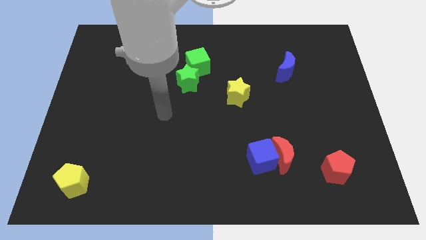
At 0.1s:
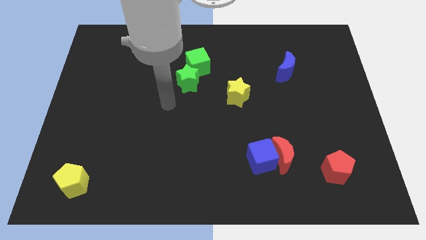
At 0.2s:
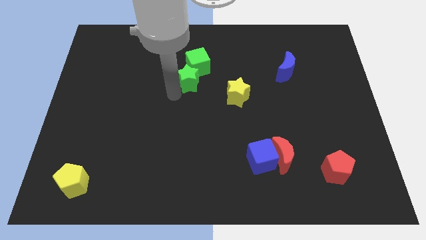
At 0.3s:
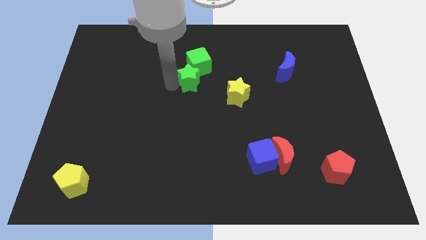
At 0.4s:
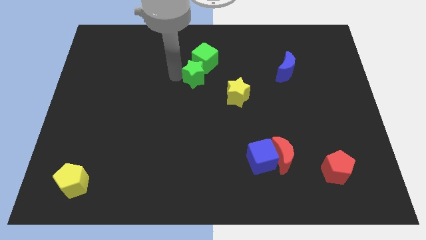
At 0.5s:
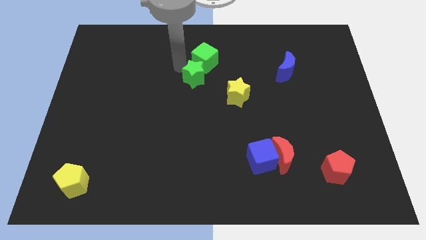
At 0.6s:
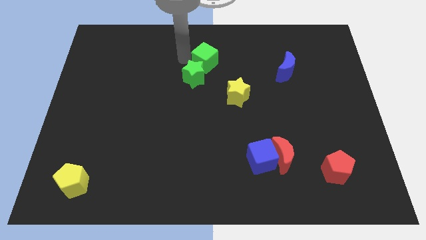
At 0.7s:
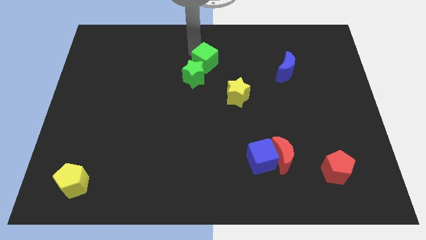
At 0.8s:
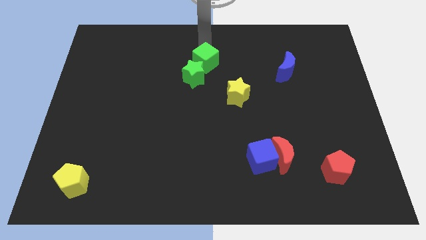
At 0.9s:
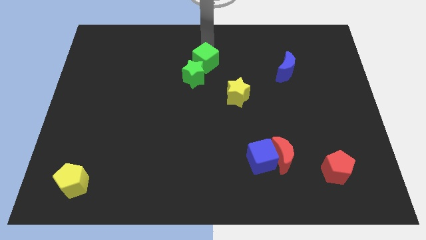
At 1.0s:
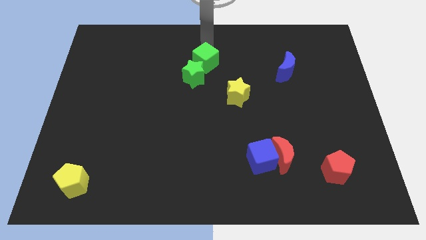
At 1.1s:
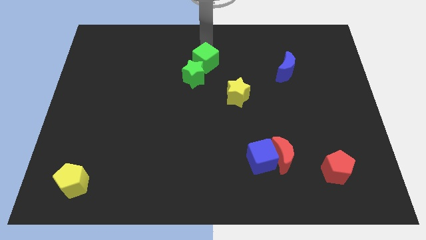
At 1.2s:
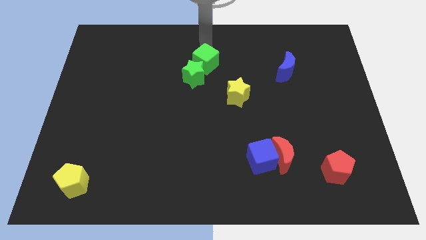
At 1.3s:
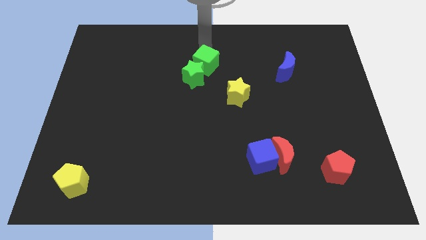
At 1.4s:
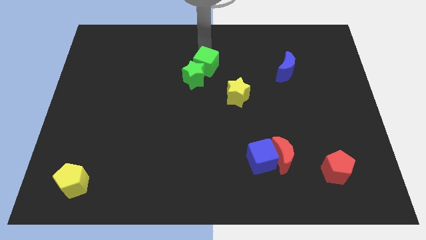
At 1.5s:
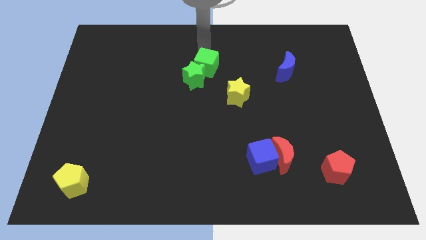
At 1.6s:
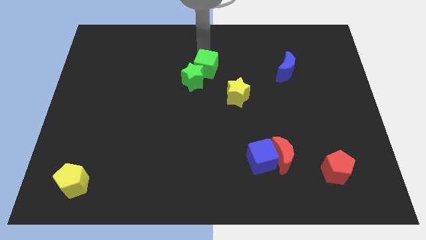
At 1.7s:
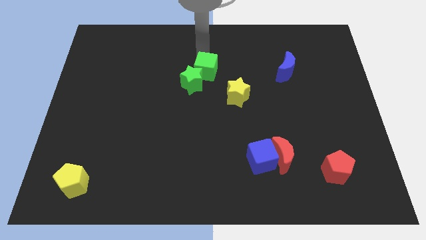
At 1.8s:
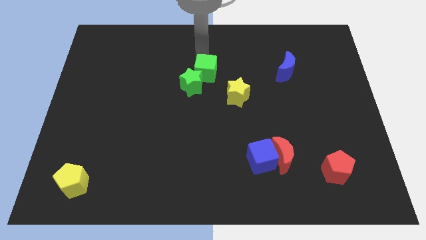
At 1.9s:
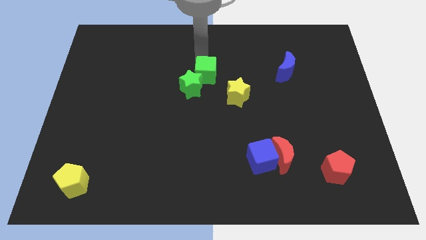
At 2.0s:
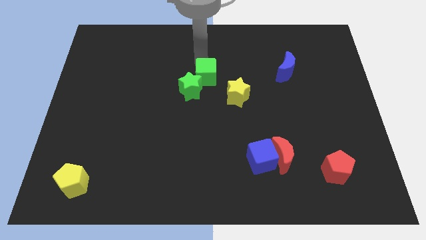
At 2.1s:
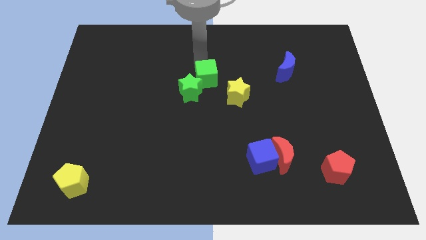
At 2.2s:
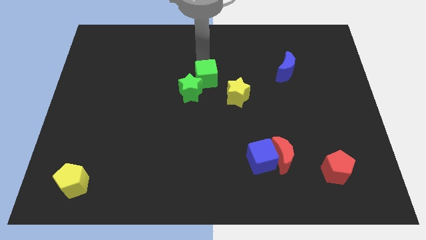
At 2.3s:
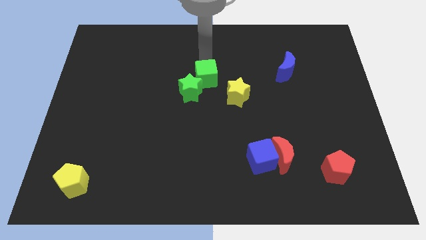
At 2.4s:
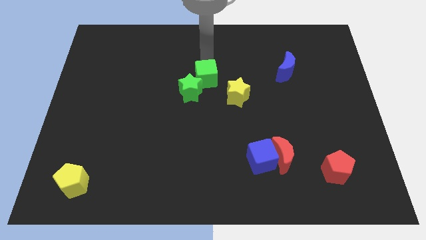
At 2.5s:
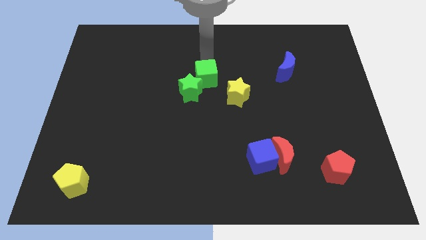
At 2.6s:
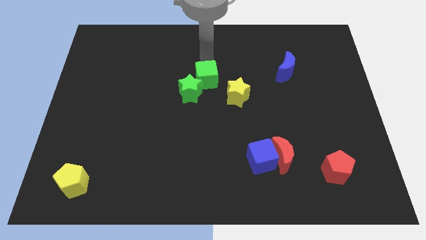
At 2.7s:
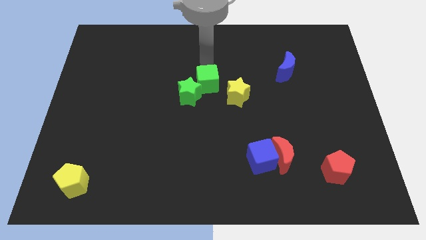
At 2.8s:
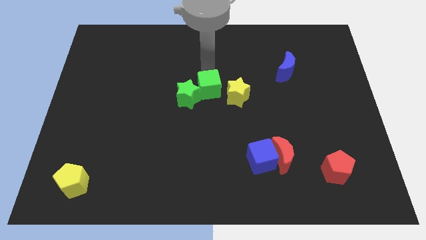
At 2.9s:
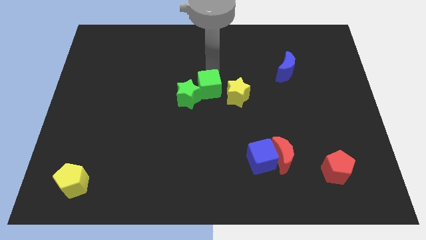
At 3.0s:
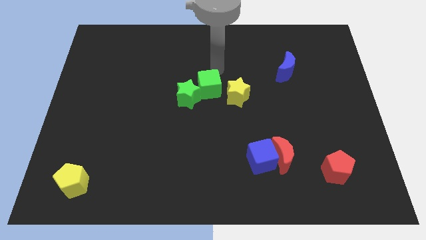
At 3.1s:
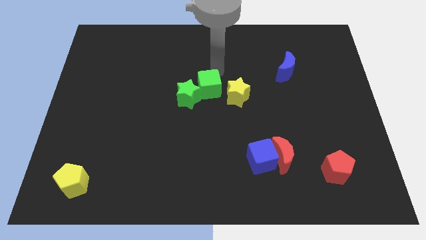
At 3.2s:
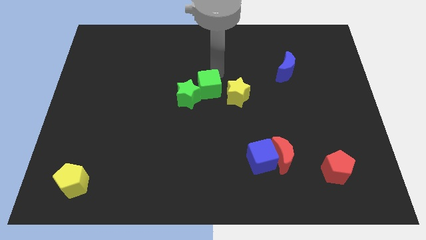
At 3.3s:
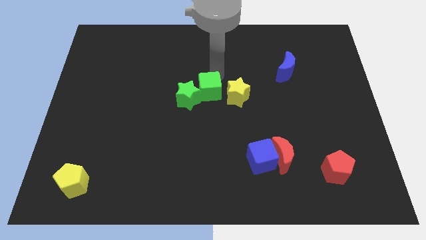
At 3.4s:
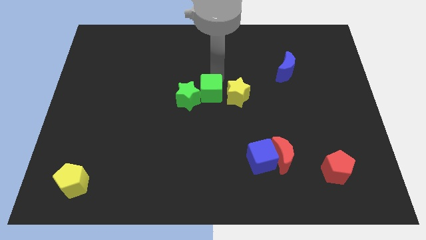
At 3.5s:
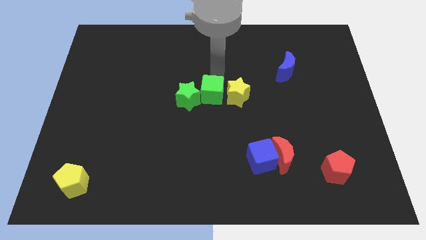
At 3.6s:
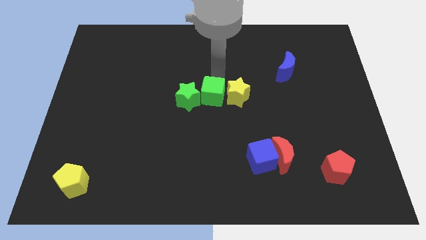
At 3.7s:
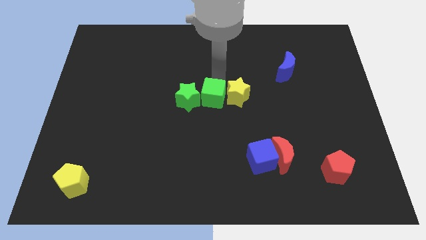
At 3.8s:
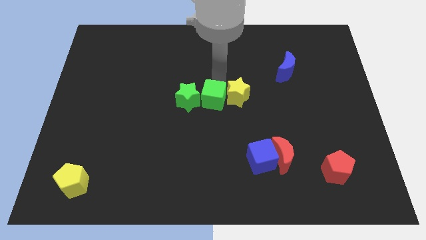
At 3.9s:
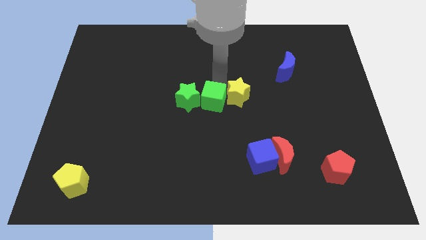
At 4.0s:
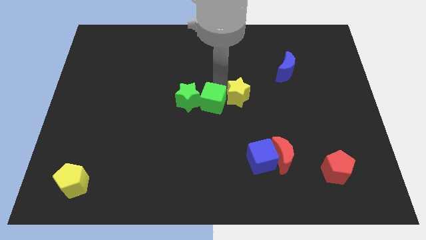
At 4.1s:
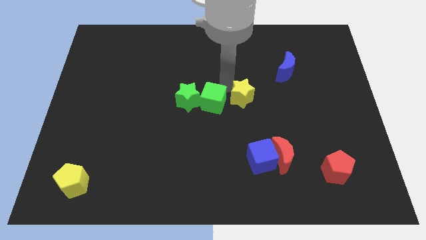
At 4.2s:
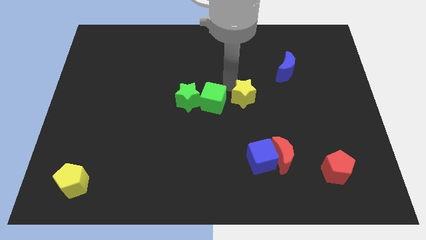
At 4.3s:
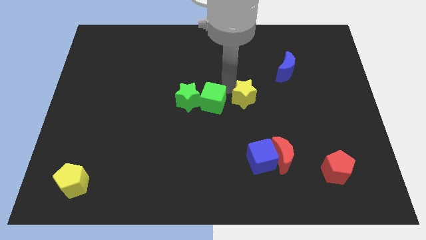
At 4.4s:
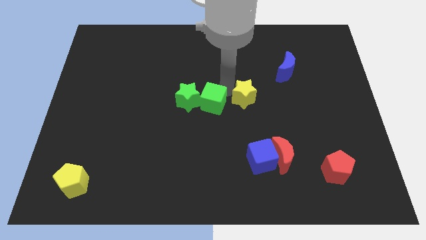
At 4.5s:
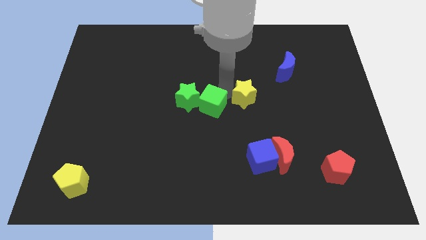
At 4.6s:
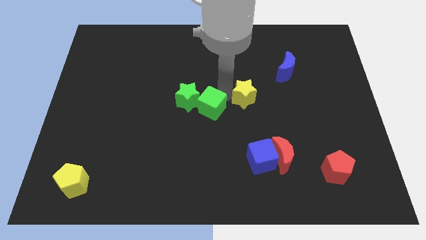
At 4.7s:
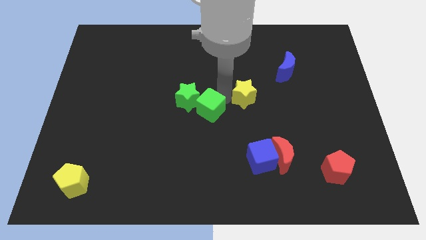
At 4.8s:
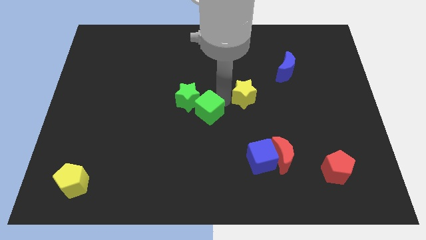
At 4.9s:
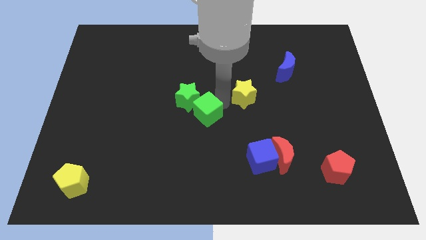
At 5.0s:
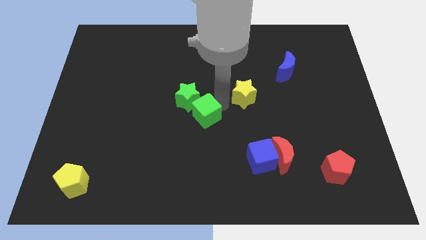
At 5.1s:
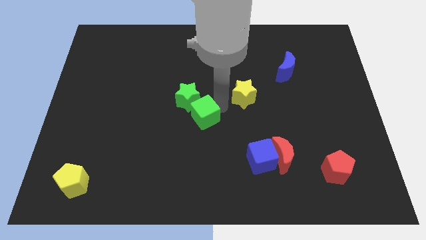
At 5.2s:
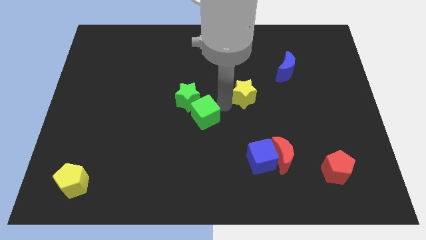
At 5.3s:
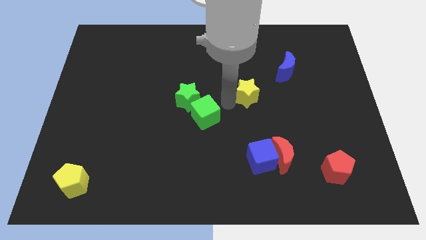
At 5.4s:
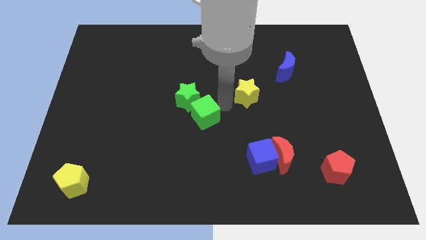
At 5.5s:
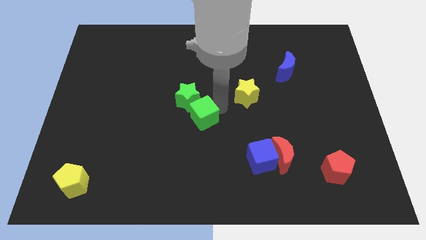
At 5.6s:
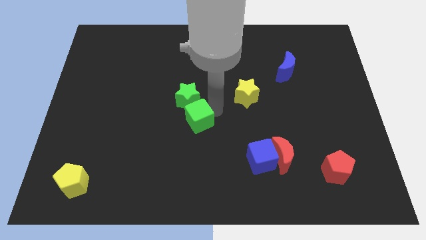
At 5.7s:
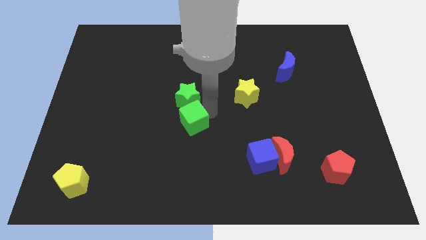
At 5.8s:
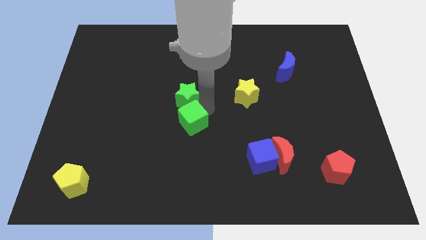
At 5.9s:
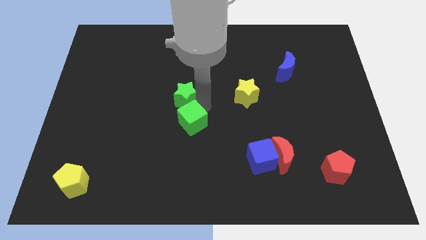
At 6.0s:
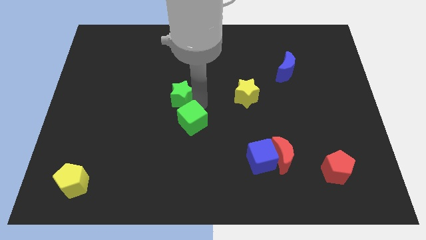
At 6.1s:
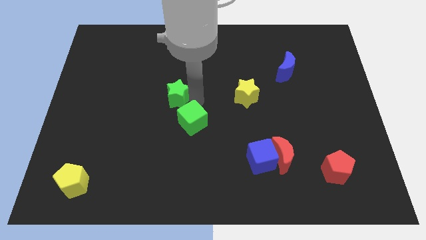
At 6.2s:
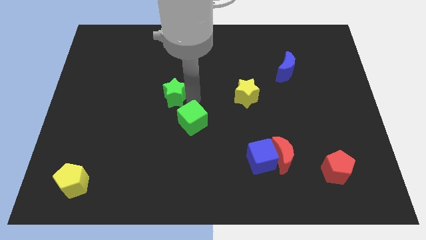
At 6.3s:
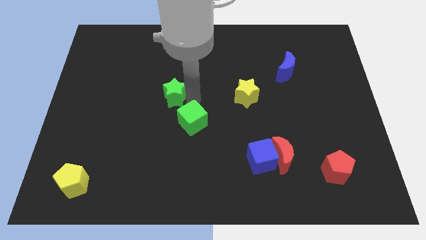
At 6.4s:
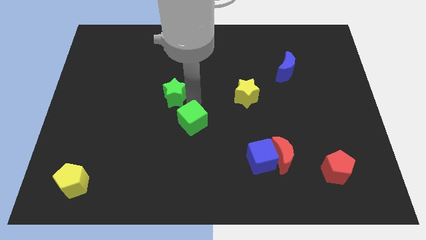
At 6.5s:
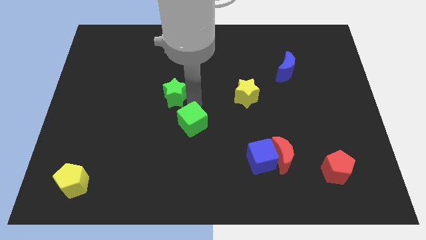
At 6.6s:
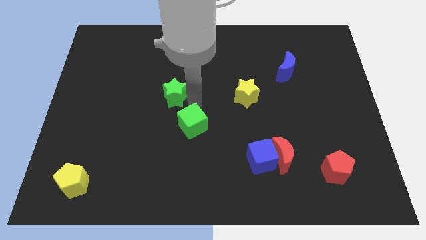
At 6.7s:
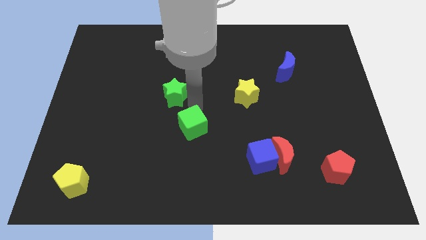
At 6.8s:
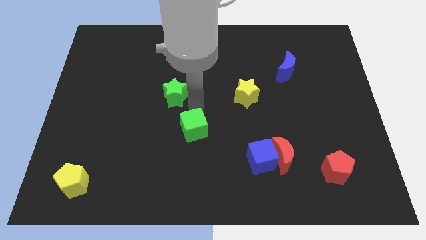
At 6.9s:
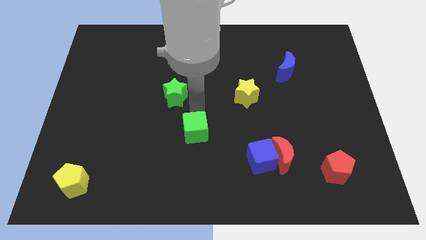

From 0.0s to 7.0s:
move the green cube downwards

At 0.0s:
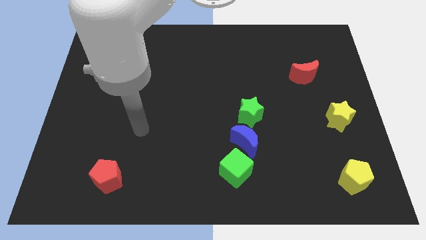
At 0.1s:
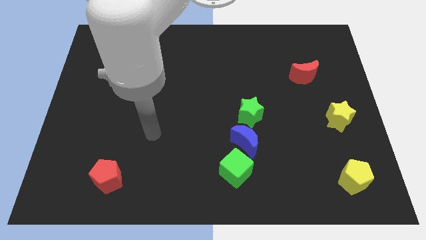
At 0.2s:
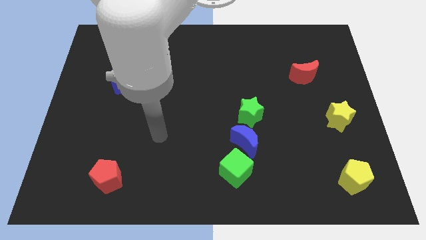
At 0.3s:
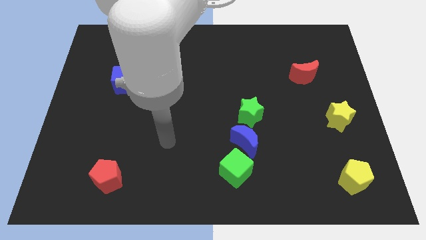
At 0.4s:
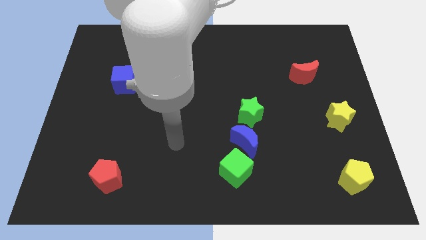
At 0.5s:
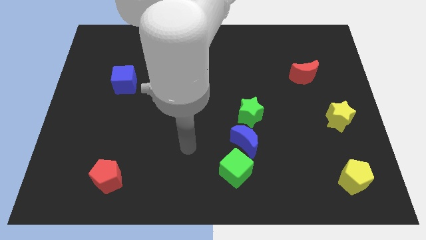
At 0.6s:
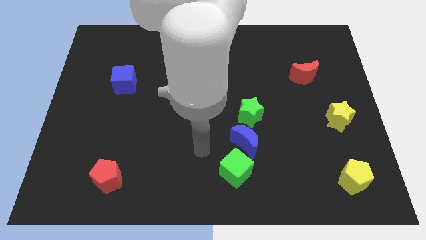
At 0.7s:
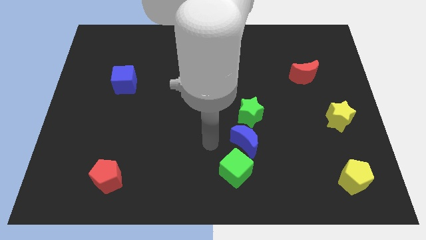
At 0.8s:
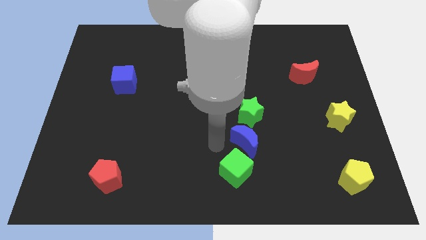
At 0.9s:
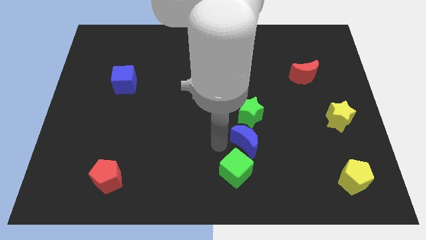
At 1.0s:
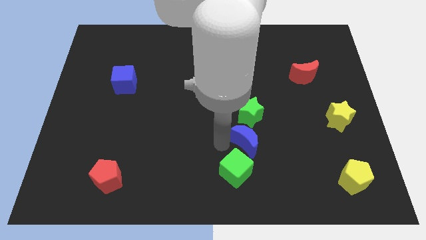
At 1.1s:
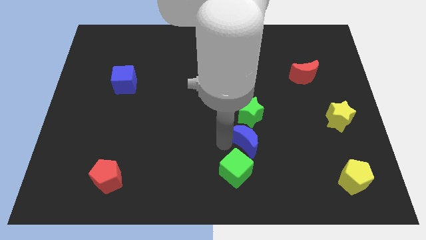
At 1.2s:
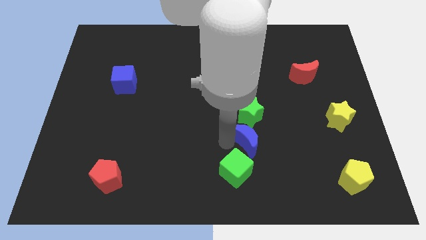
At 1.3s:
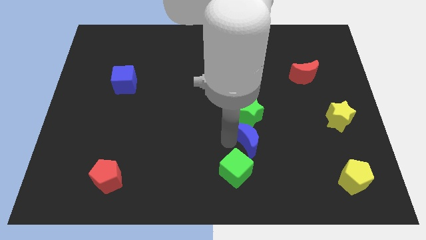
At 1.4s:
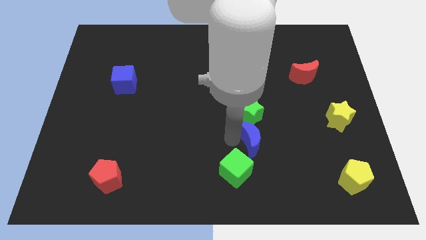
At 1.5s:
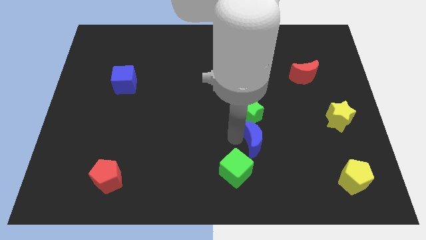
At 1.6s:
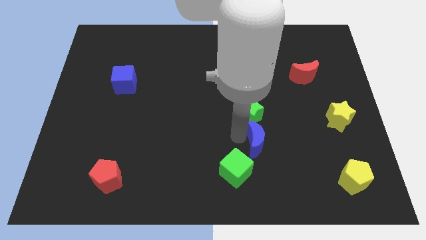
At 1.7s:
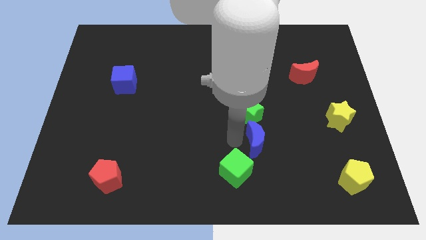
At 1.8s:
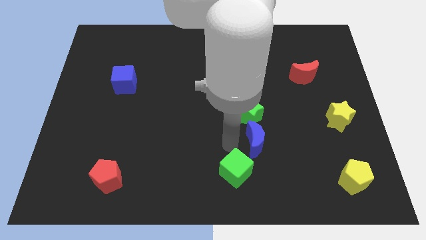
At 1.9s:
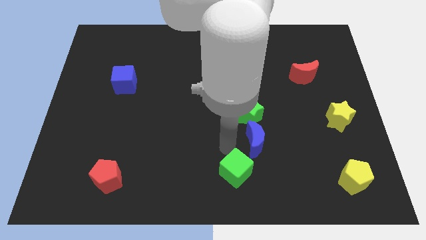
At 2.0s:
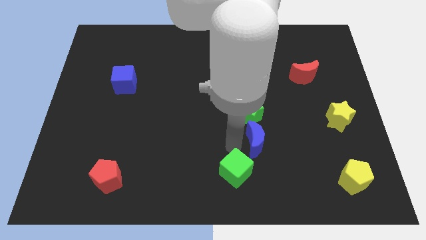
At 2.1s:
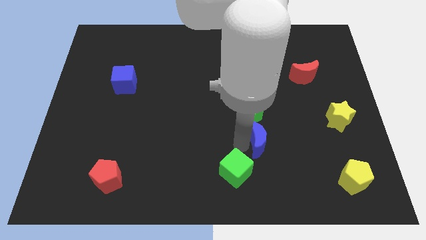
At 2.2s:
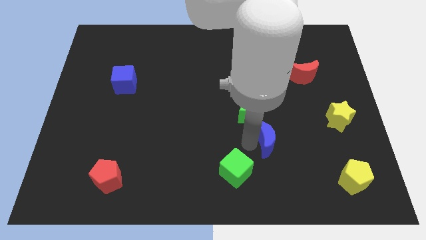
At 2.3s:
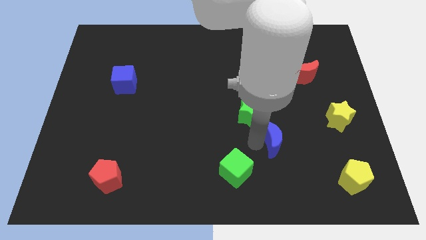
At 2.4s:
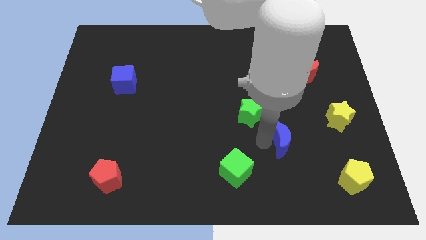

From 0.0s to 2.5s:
push the blue moon somewhat right
